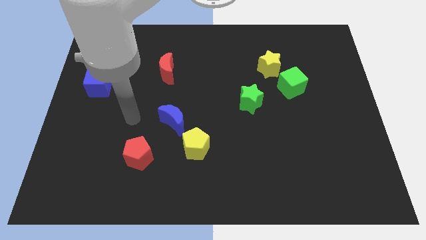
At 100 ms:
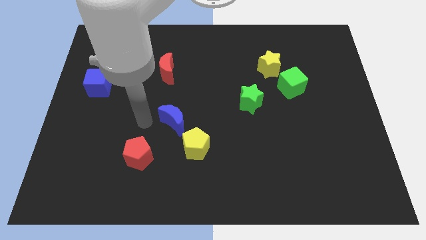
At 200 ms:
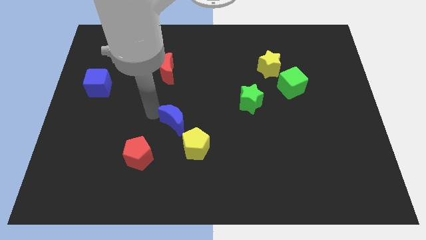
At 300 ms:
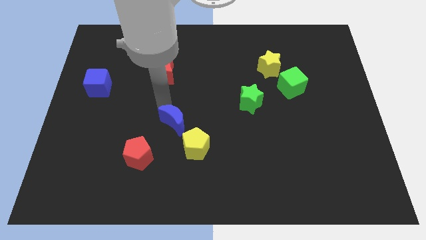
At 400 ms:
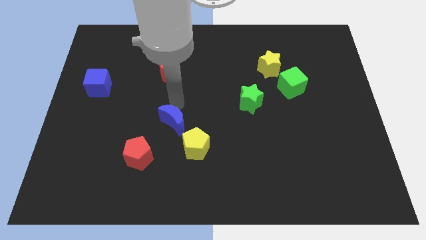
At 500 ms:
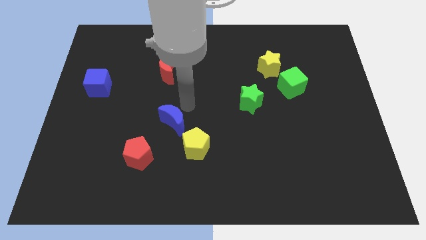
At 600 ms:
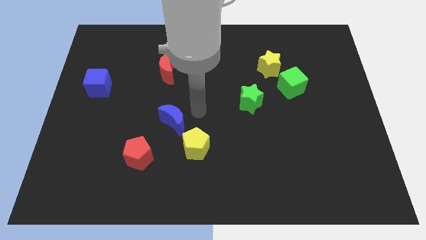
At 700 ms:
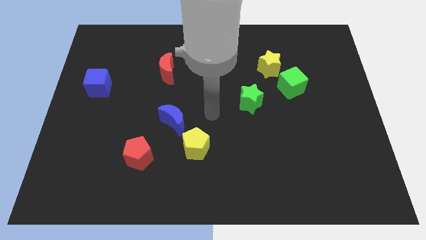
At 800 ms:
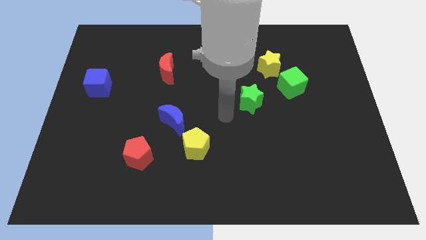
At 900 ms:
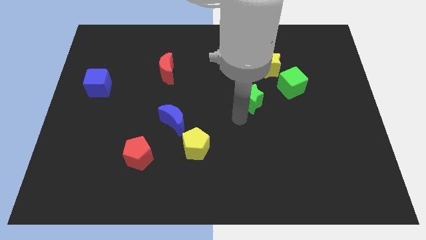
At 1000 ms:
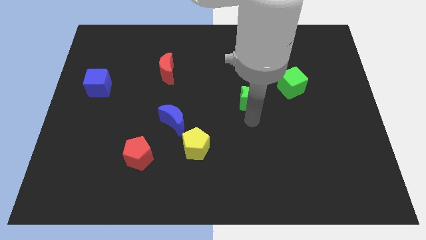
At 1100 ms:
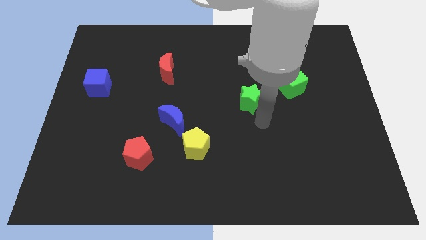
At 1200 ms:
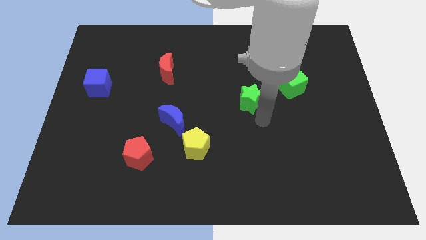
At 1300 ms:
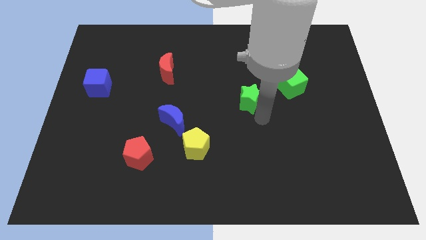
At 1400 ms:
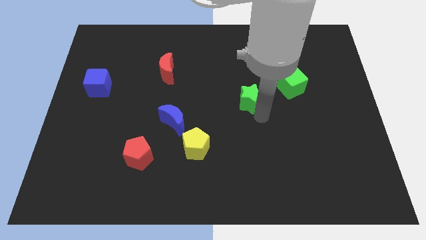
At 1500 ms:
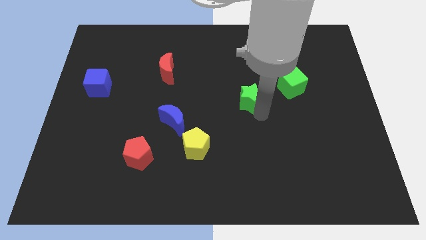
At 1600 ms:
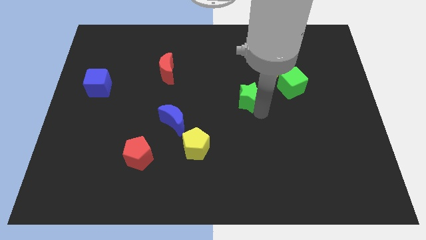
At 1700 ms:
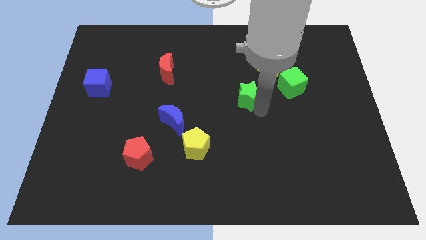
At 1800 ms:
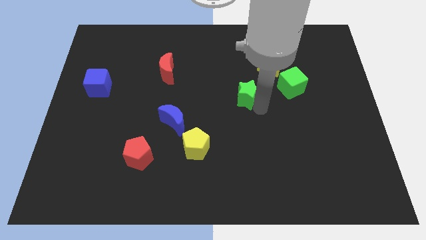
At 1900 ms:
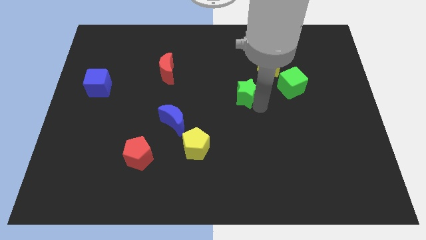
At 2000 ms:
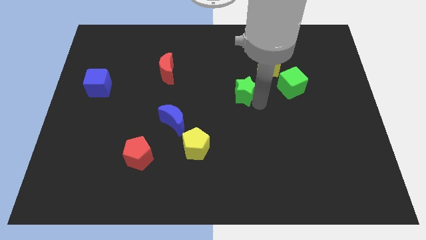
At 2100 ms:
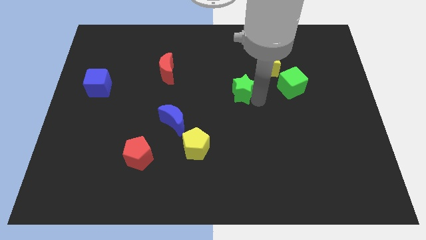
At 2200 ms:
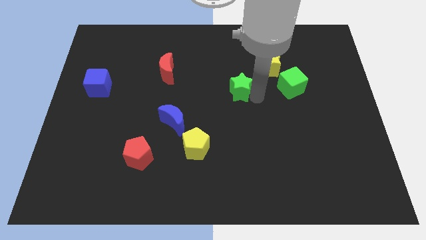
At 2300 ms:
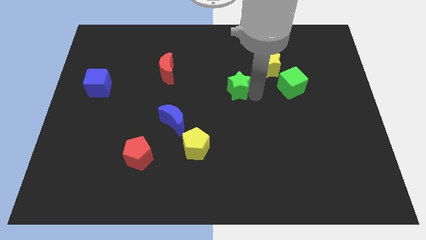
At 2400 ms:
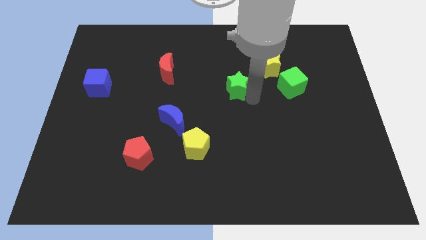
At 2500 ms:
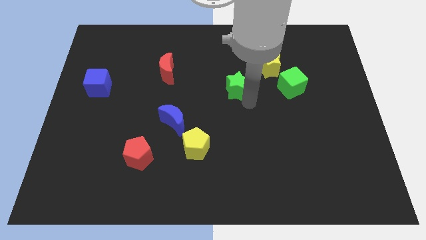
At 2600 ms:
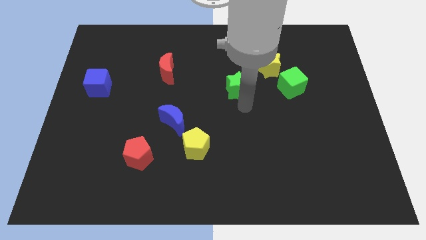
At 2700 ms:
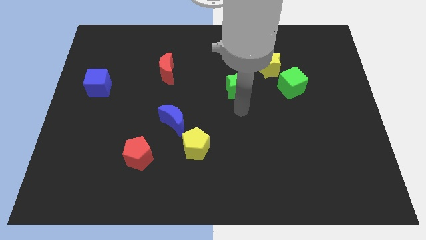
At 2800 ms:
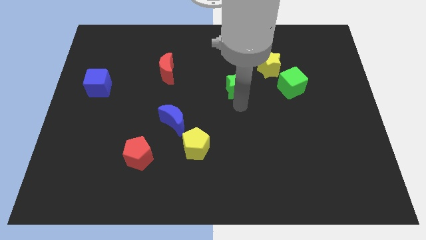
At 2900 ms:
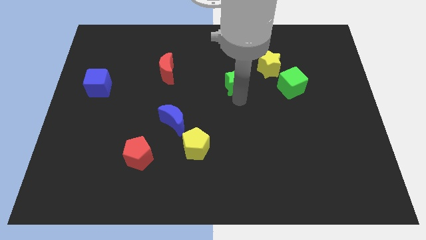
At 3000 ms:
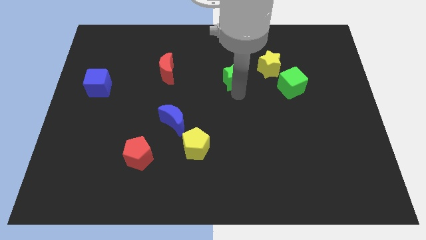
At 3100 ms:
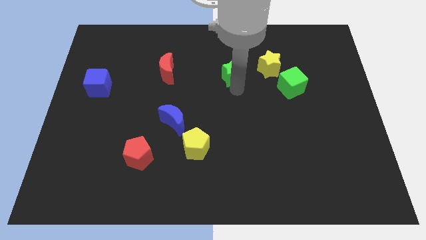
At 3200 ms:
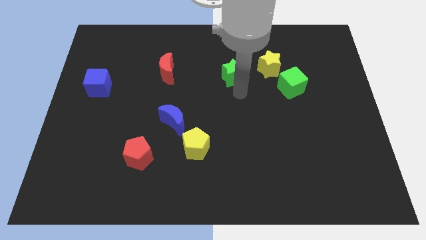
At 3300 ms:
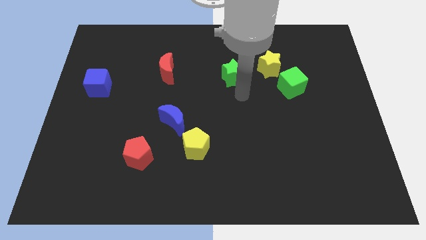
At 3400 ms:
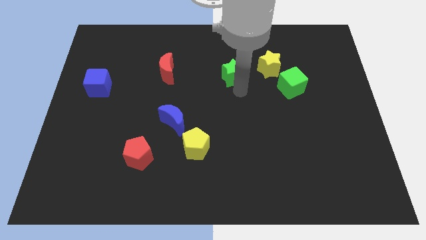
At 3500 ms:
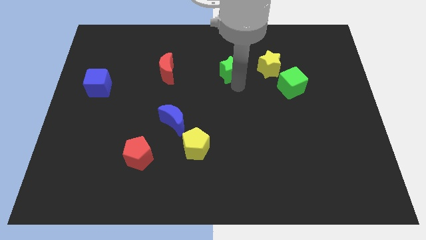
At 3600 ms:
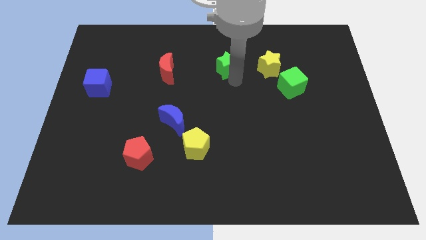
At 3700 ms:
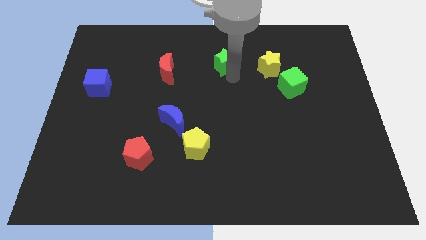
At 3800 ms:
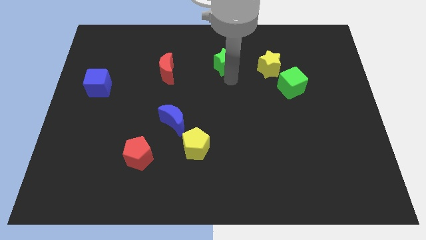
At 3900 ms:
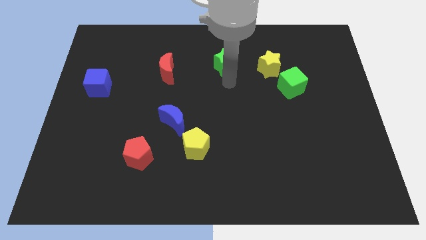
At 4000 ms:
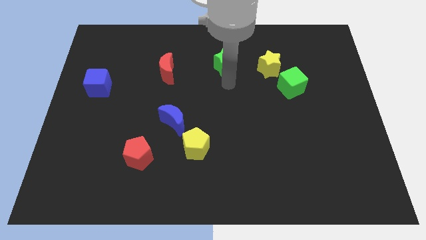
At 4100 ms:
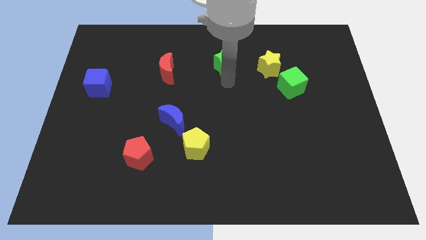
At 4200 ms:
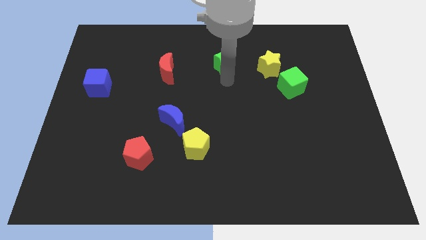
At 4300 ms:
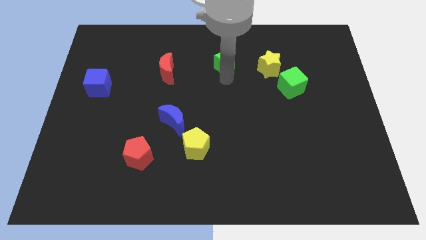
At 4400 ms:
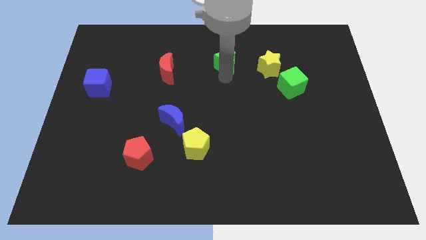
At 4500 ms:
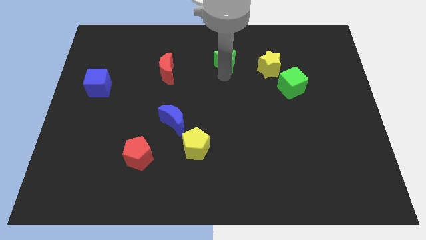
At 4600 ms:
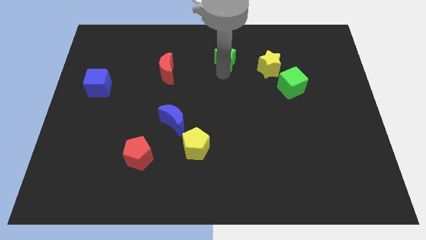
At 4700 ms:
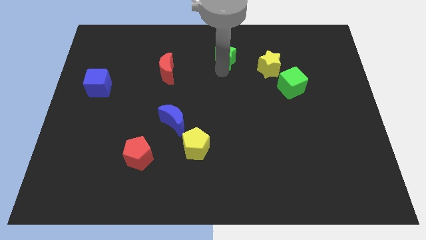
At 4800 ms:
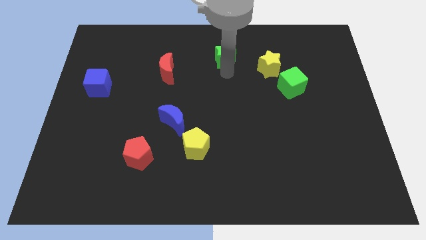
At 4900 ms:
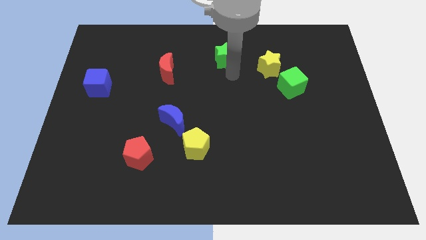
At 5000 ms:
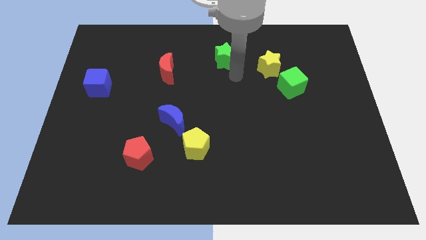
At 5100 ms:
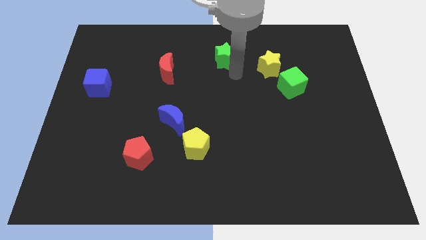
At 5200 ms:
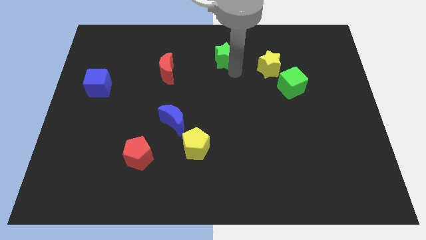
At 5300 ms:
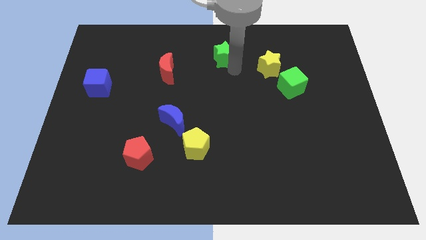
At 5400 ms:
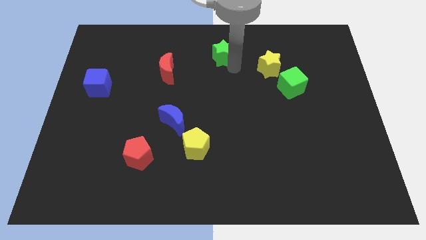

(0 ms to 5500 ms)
slide the green star to the top side

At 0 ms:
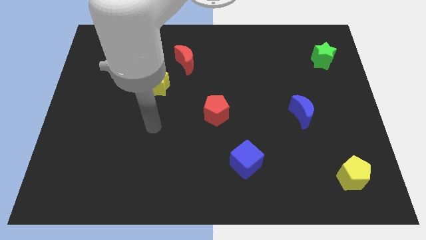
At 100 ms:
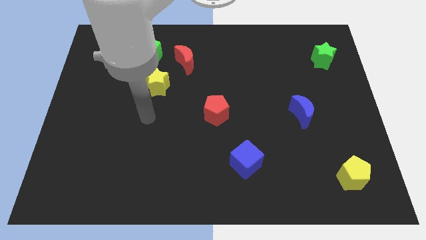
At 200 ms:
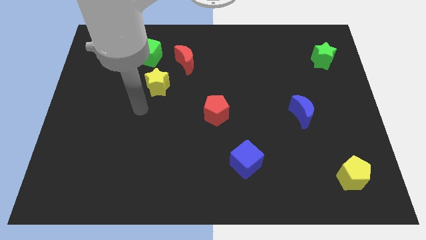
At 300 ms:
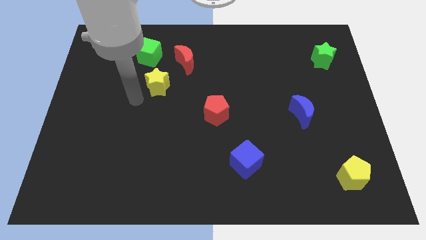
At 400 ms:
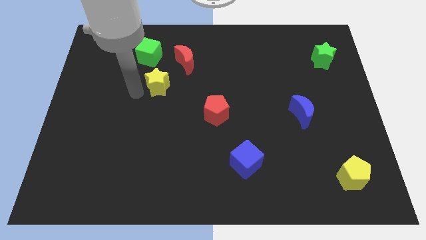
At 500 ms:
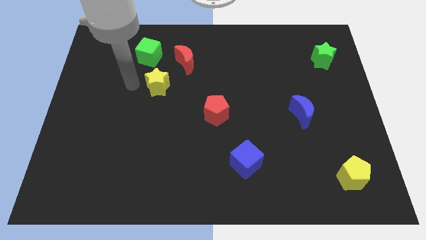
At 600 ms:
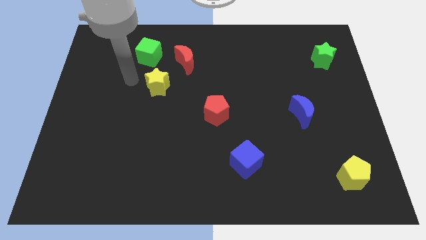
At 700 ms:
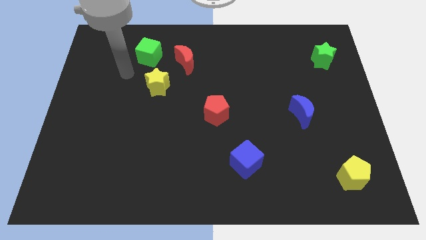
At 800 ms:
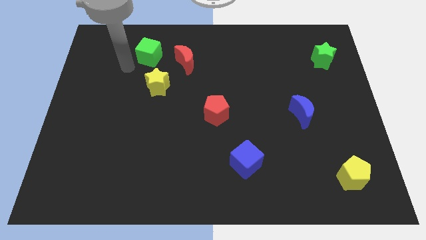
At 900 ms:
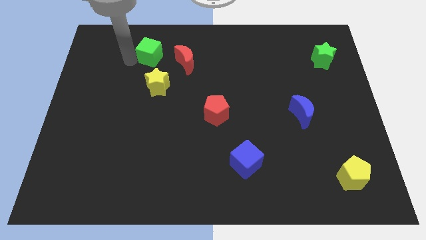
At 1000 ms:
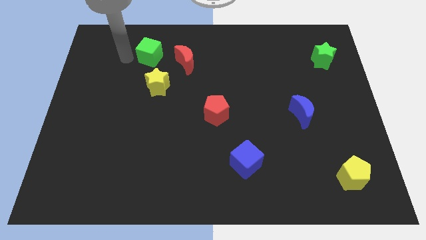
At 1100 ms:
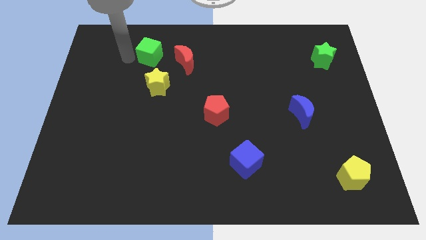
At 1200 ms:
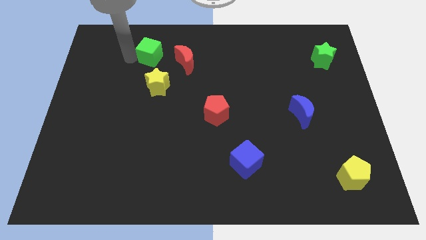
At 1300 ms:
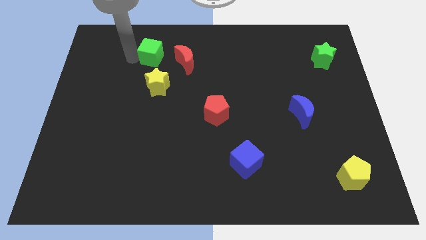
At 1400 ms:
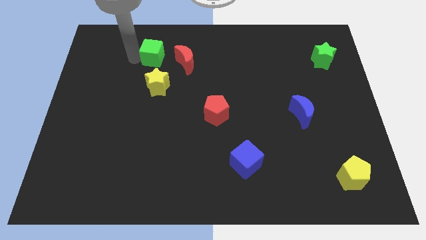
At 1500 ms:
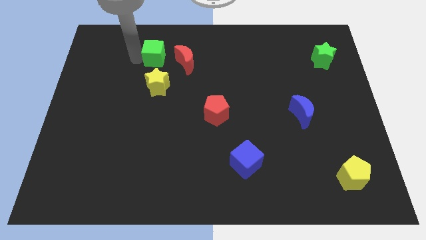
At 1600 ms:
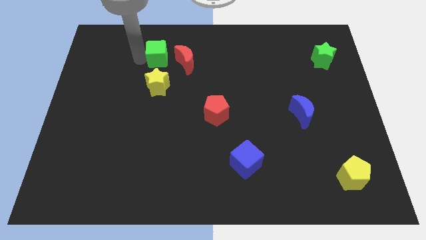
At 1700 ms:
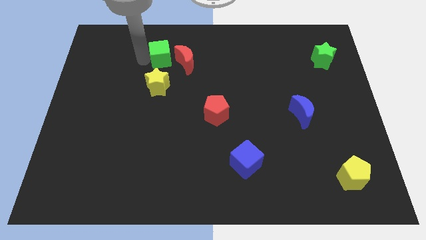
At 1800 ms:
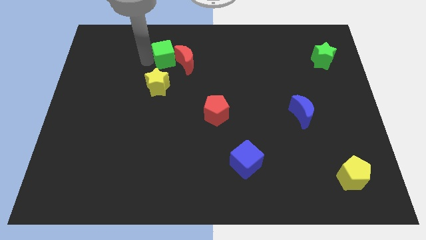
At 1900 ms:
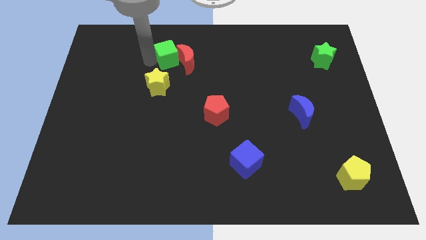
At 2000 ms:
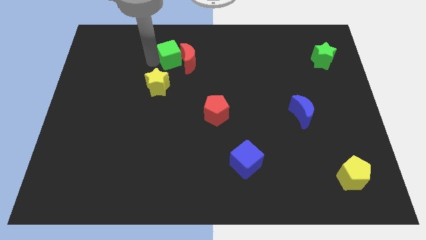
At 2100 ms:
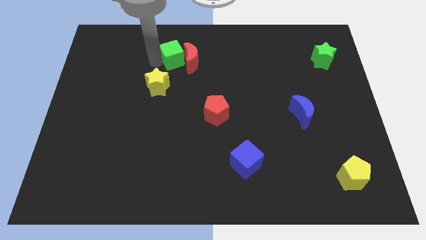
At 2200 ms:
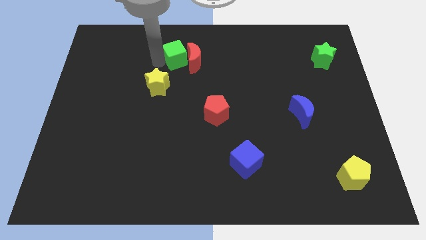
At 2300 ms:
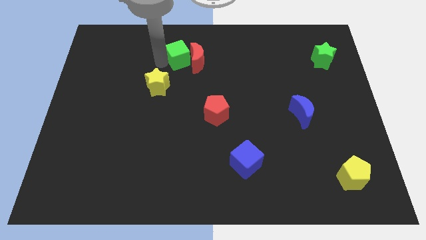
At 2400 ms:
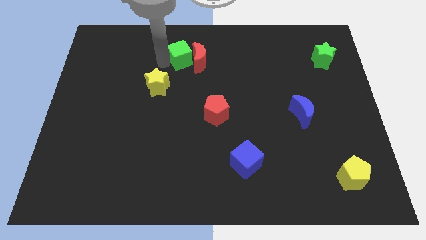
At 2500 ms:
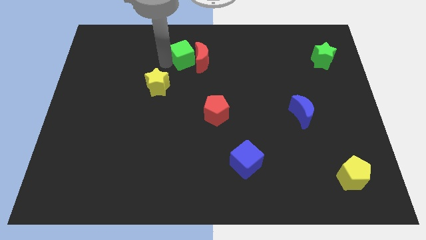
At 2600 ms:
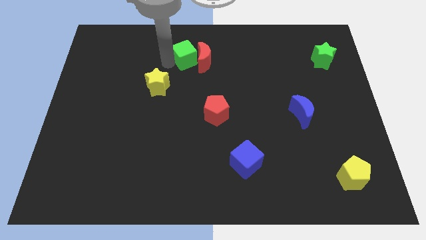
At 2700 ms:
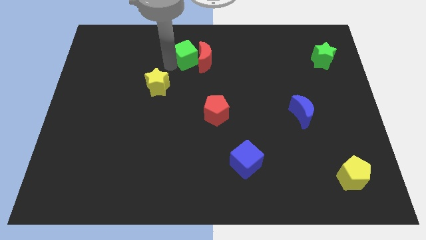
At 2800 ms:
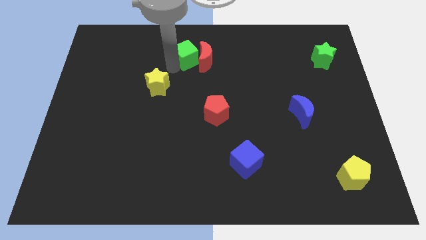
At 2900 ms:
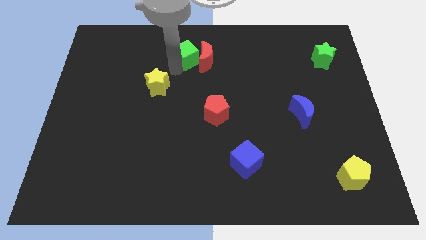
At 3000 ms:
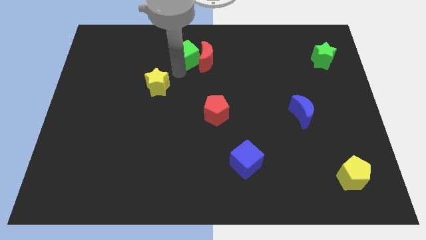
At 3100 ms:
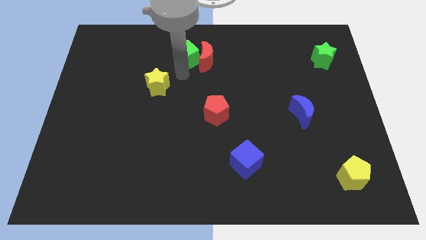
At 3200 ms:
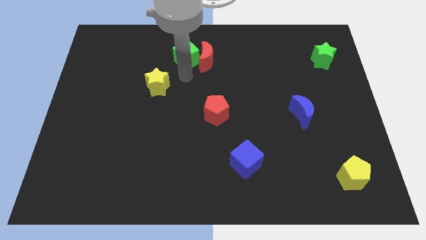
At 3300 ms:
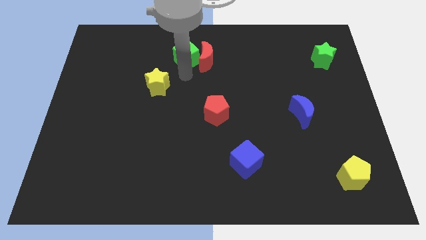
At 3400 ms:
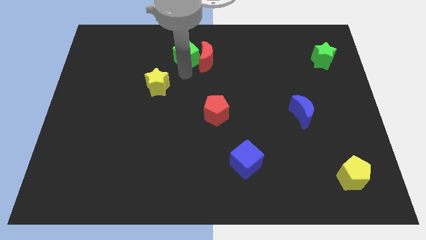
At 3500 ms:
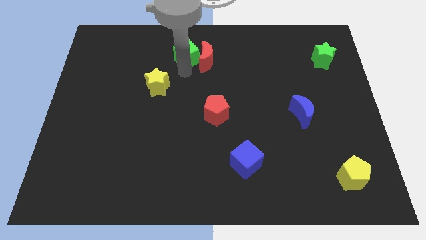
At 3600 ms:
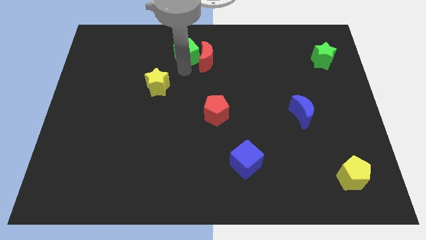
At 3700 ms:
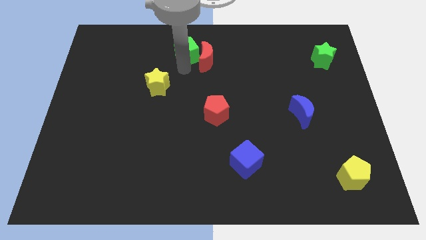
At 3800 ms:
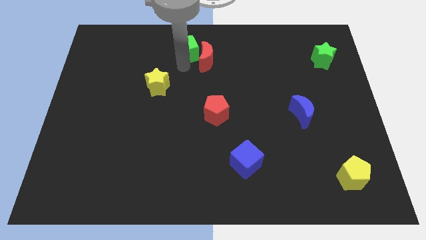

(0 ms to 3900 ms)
slide the green cube to the top side
